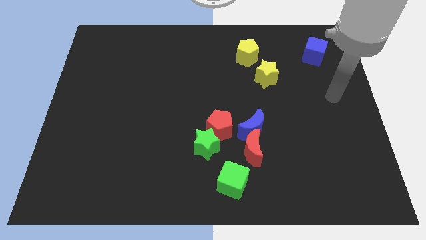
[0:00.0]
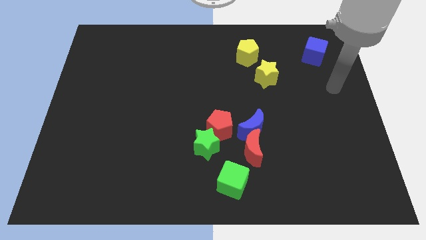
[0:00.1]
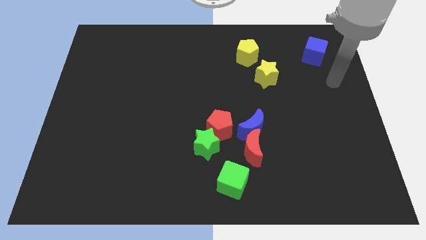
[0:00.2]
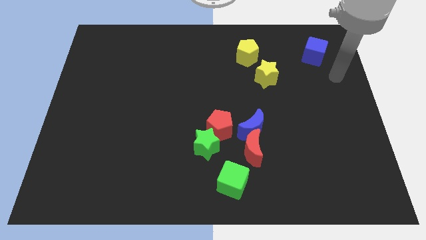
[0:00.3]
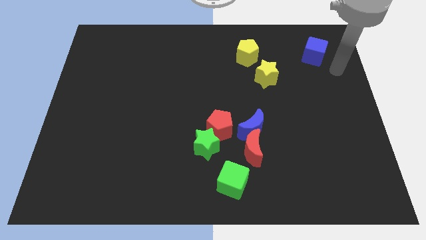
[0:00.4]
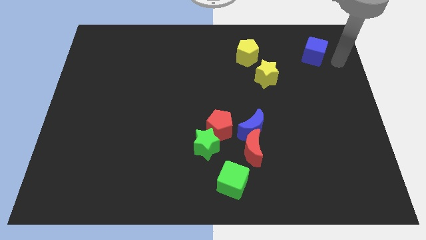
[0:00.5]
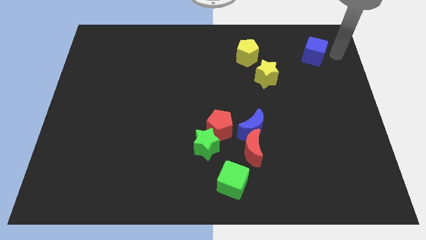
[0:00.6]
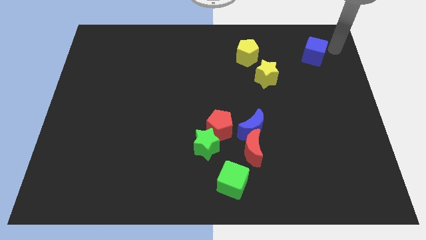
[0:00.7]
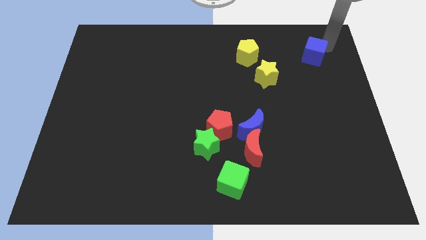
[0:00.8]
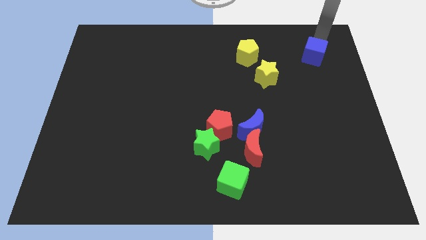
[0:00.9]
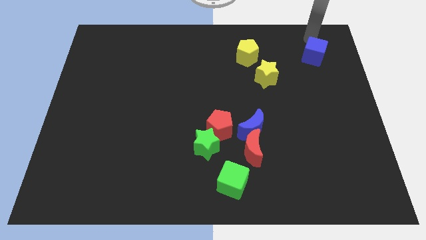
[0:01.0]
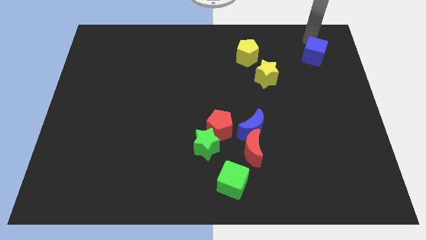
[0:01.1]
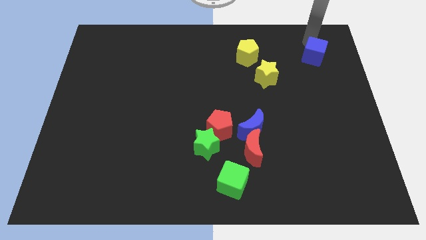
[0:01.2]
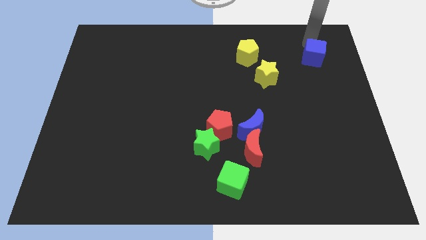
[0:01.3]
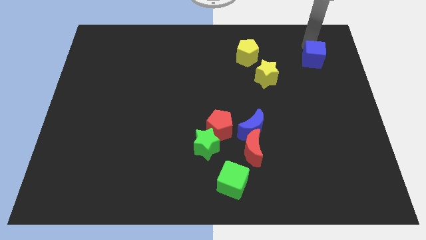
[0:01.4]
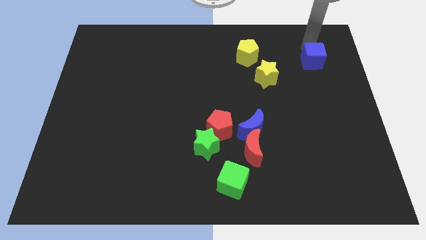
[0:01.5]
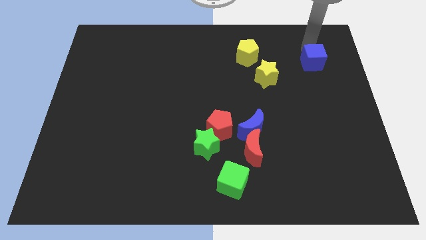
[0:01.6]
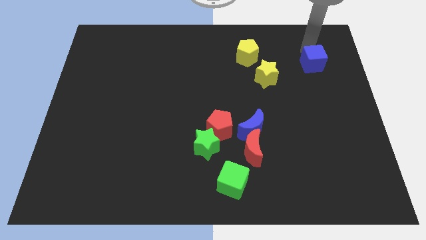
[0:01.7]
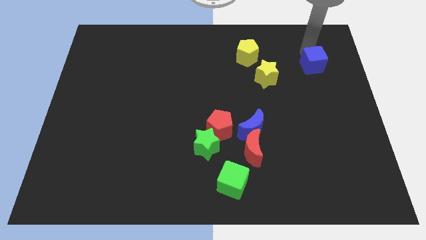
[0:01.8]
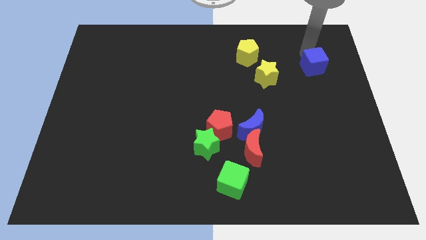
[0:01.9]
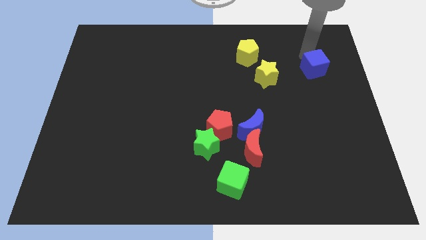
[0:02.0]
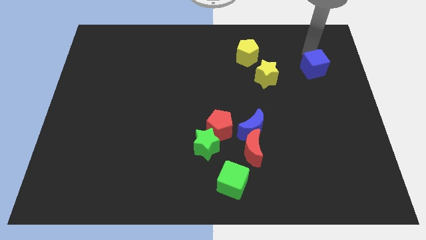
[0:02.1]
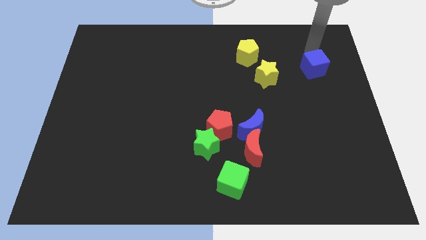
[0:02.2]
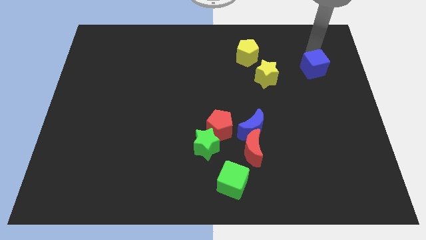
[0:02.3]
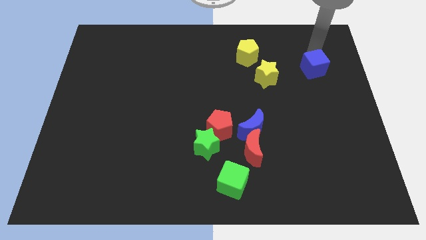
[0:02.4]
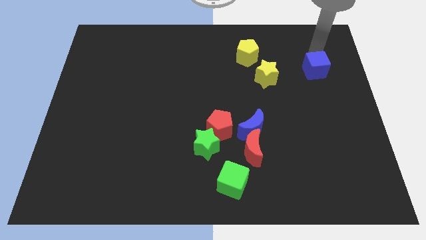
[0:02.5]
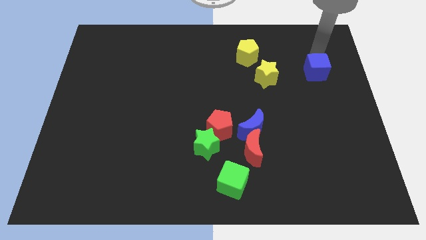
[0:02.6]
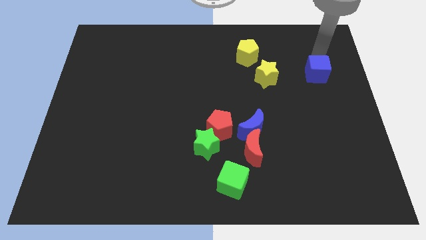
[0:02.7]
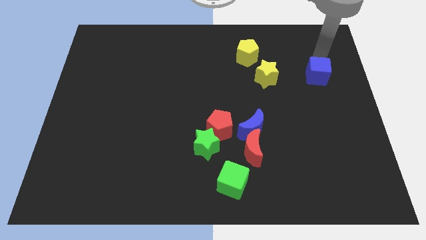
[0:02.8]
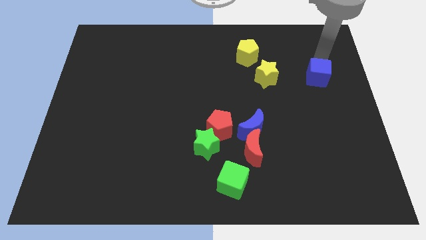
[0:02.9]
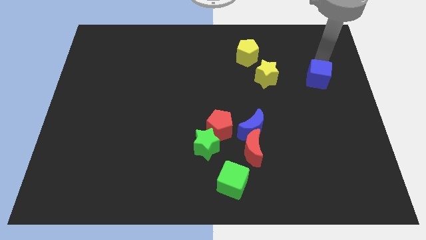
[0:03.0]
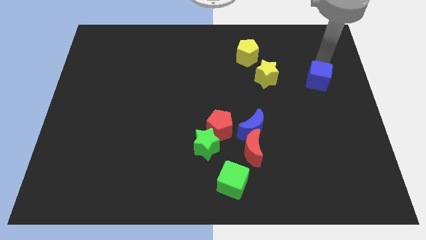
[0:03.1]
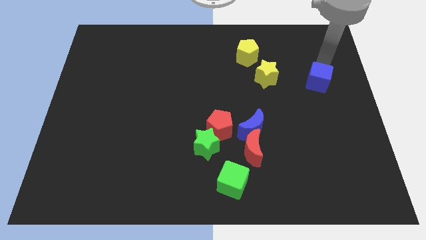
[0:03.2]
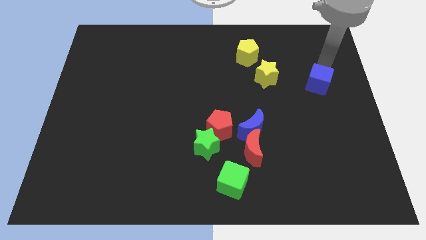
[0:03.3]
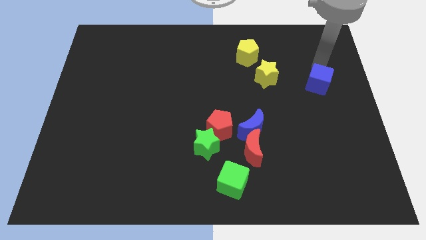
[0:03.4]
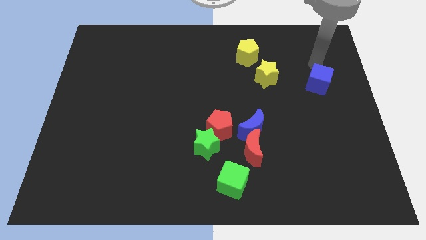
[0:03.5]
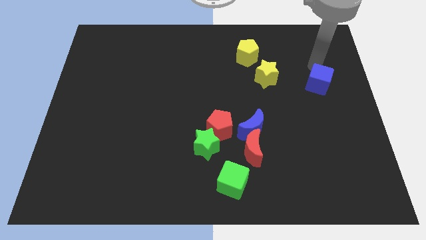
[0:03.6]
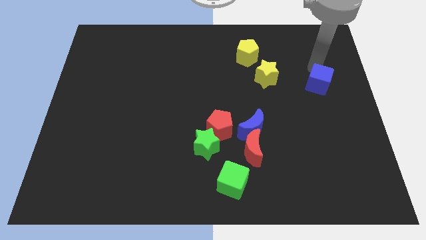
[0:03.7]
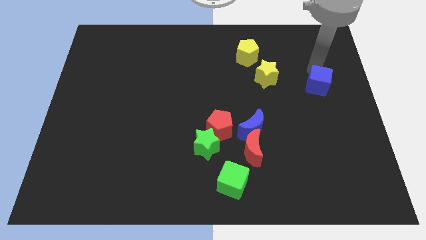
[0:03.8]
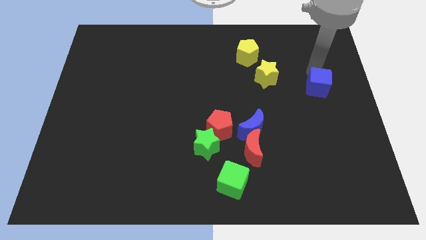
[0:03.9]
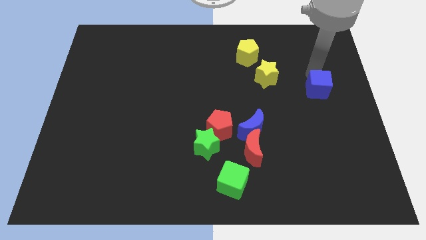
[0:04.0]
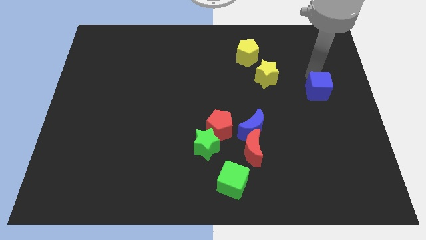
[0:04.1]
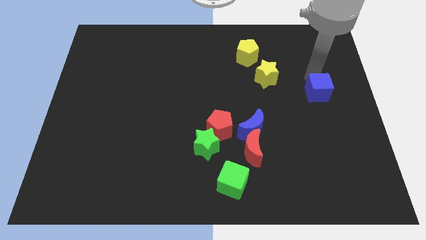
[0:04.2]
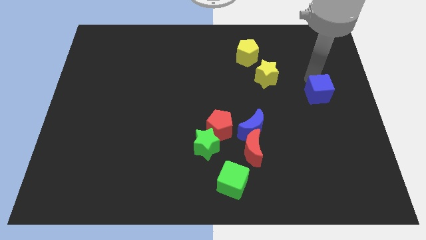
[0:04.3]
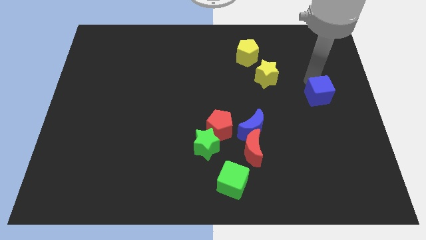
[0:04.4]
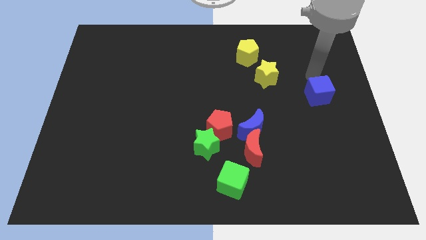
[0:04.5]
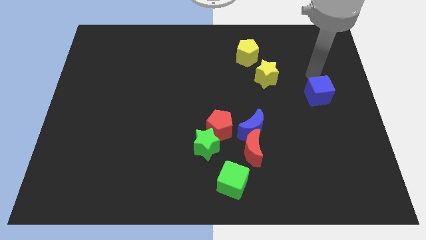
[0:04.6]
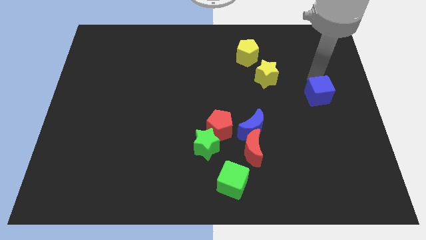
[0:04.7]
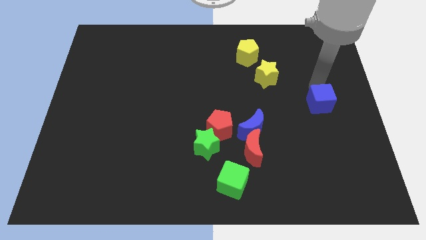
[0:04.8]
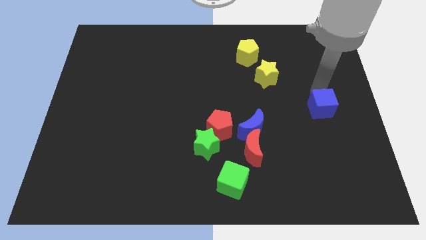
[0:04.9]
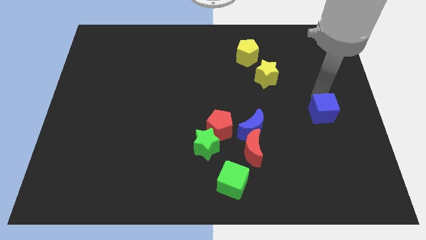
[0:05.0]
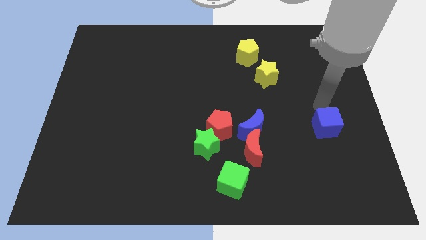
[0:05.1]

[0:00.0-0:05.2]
move the blue cube down

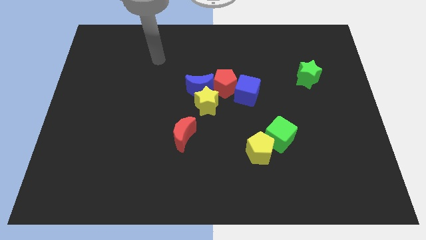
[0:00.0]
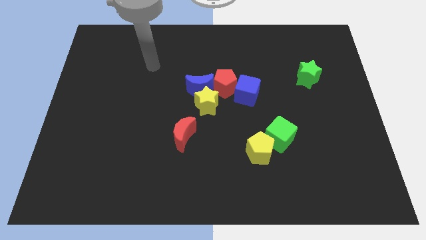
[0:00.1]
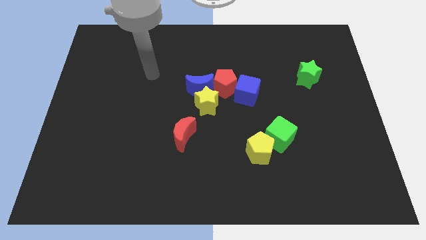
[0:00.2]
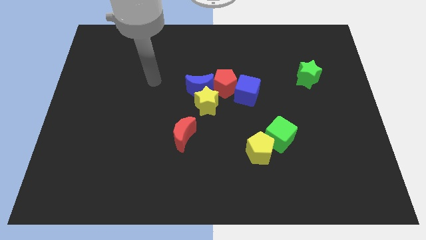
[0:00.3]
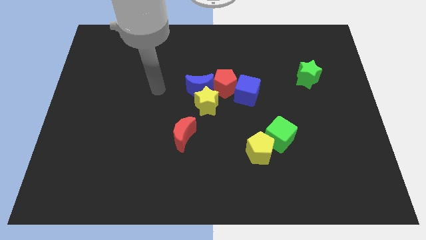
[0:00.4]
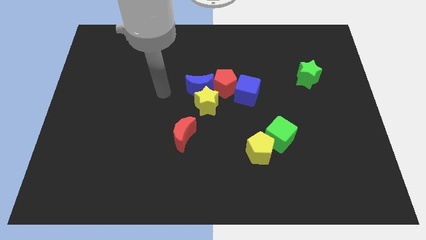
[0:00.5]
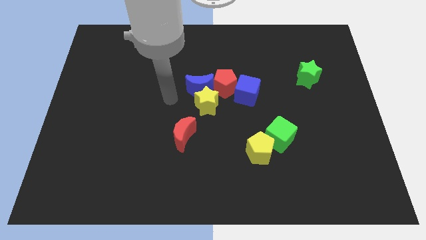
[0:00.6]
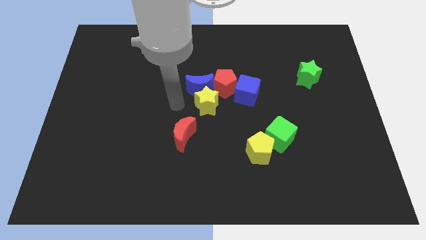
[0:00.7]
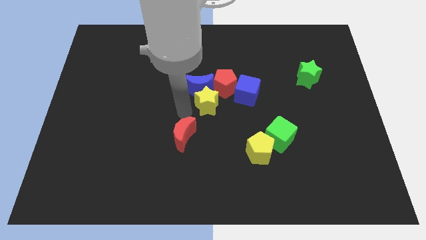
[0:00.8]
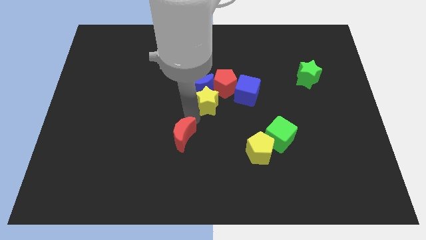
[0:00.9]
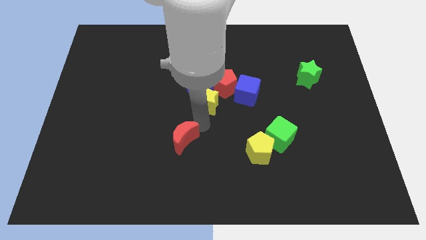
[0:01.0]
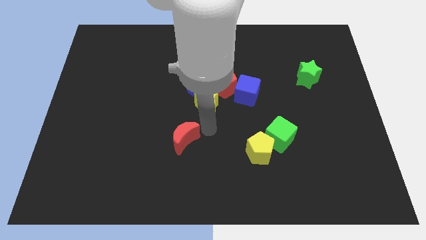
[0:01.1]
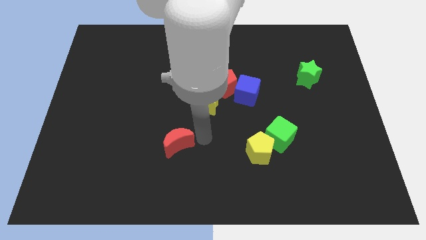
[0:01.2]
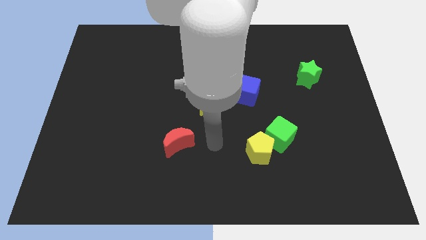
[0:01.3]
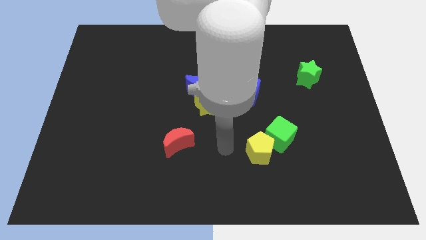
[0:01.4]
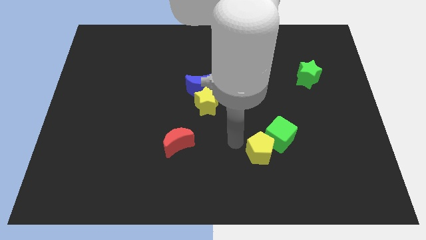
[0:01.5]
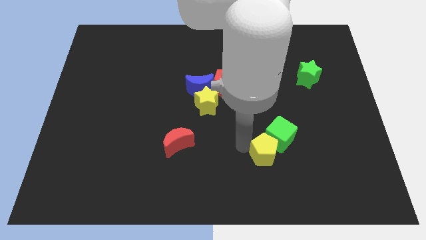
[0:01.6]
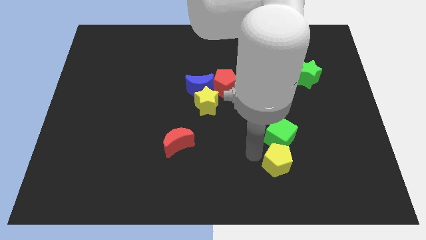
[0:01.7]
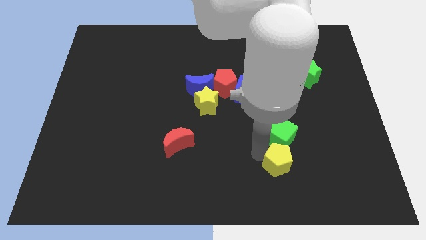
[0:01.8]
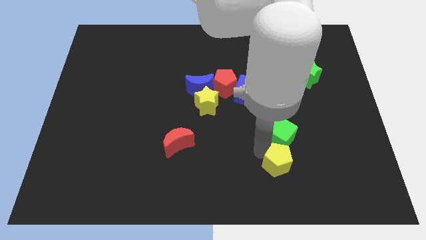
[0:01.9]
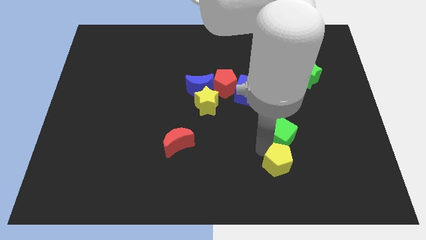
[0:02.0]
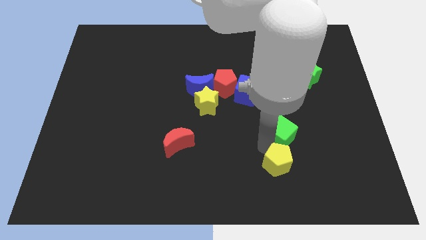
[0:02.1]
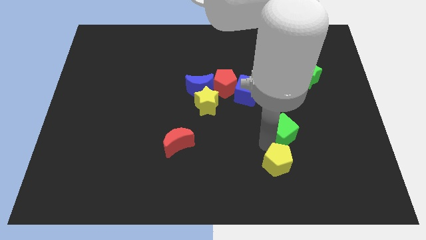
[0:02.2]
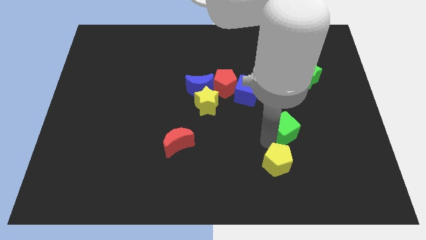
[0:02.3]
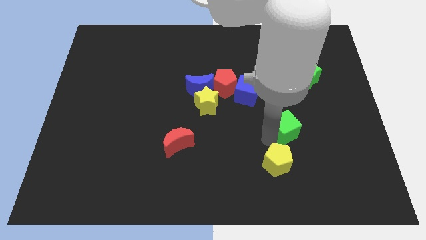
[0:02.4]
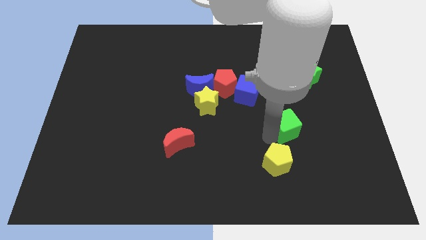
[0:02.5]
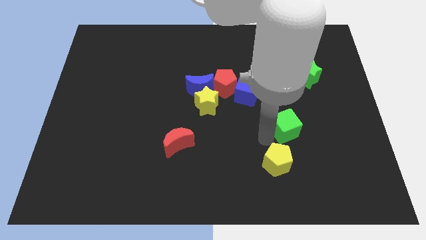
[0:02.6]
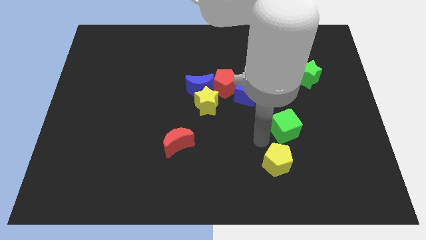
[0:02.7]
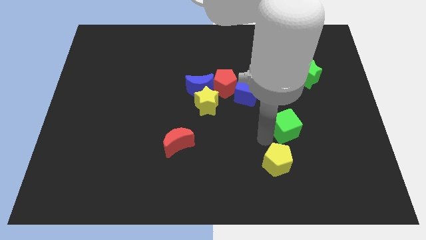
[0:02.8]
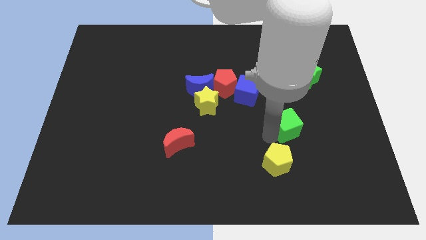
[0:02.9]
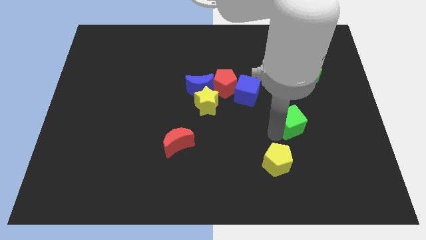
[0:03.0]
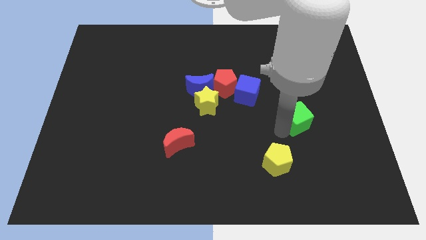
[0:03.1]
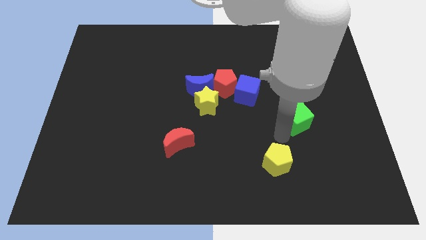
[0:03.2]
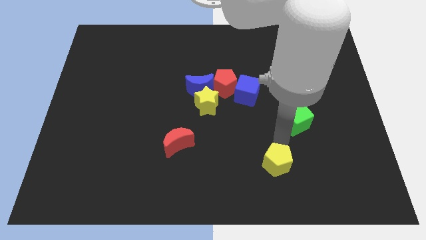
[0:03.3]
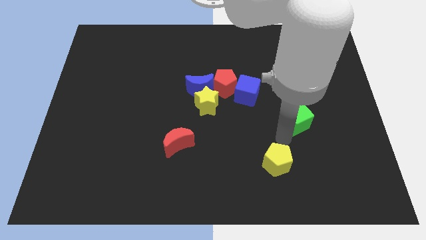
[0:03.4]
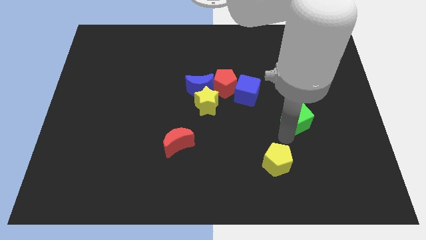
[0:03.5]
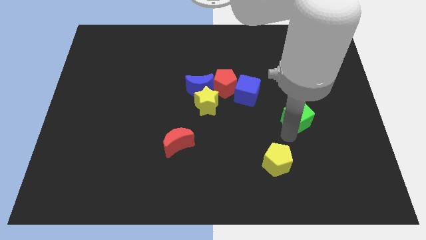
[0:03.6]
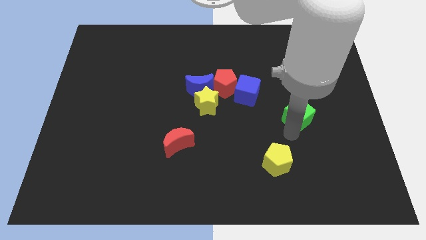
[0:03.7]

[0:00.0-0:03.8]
move the green cube upwards and to the right a little
